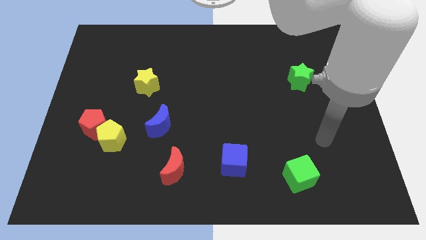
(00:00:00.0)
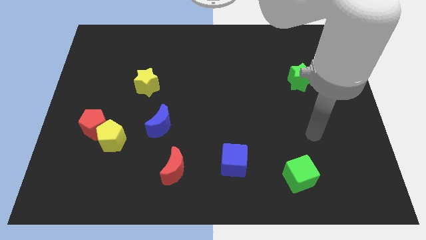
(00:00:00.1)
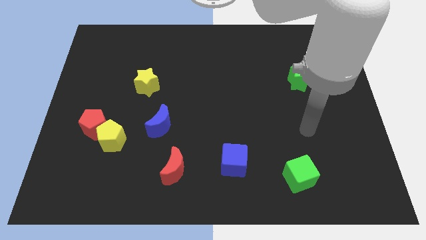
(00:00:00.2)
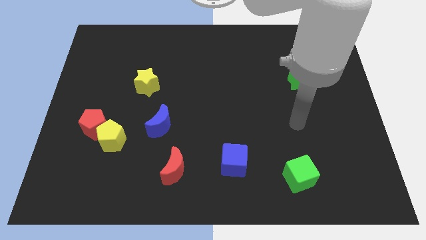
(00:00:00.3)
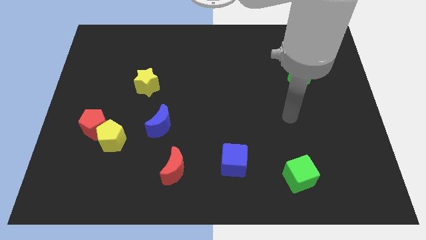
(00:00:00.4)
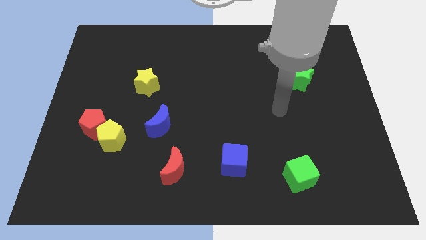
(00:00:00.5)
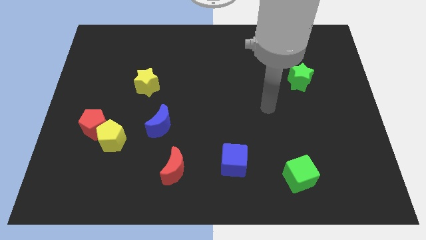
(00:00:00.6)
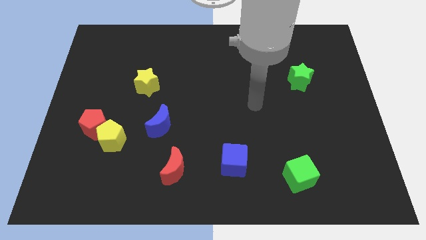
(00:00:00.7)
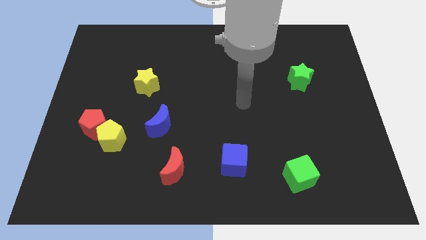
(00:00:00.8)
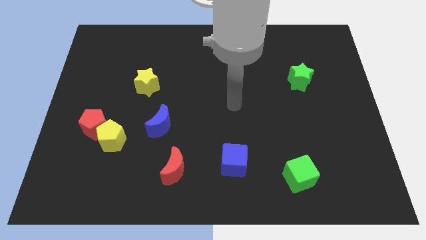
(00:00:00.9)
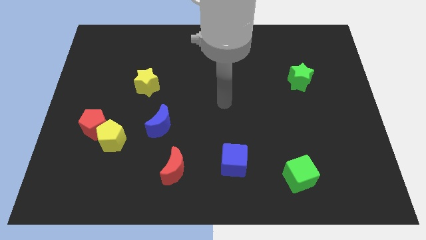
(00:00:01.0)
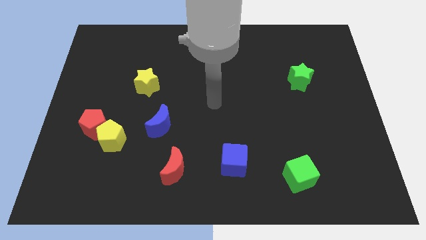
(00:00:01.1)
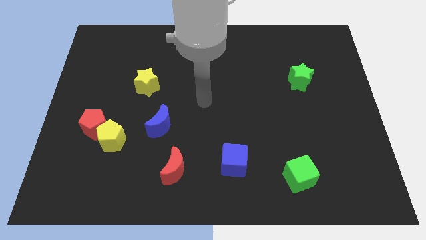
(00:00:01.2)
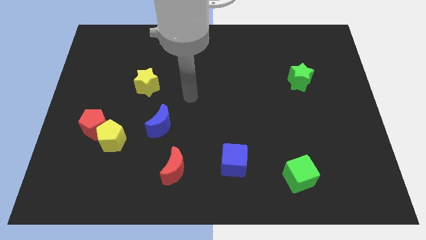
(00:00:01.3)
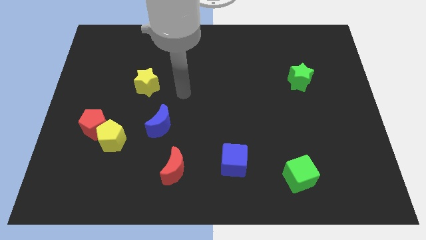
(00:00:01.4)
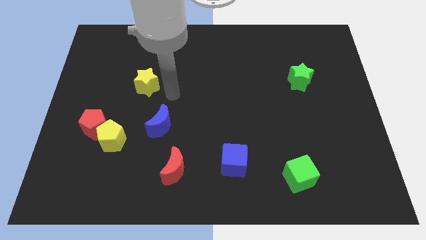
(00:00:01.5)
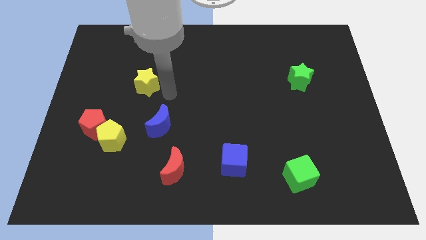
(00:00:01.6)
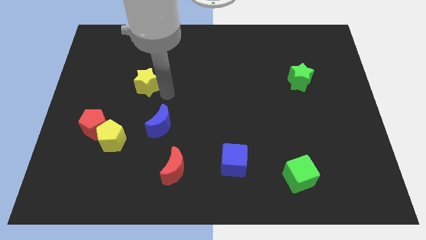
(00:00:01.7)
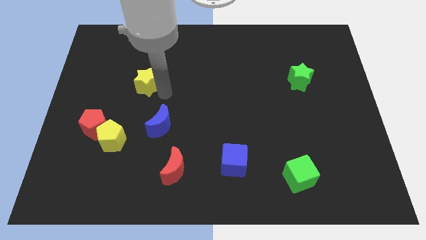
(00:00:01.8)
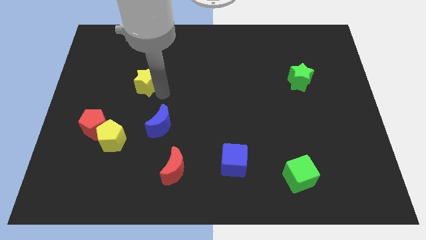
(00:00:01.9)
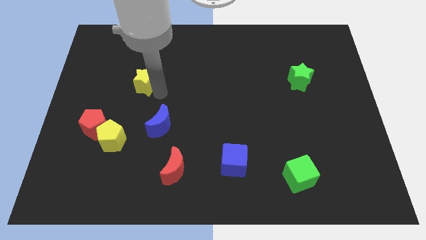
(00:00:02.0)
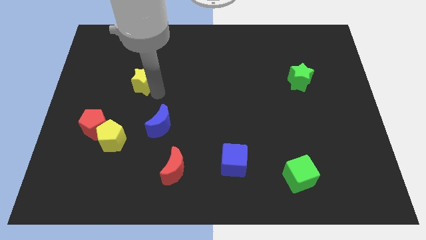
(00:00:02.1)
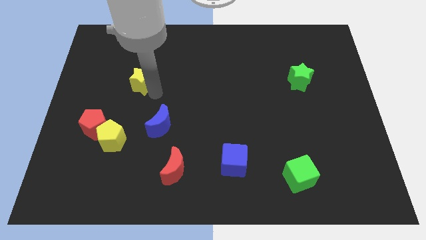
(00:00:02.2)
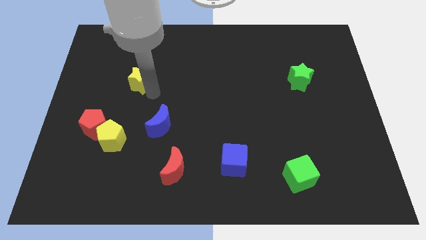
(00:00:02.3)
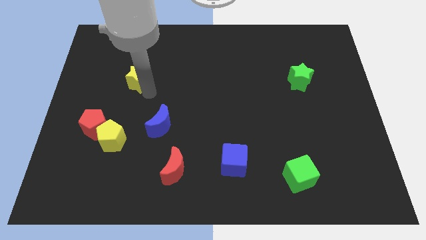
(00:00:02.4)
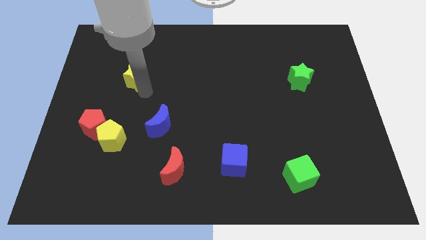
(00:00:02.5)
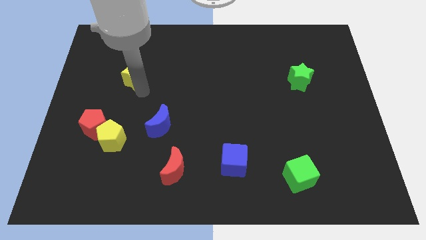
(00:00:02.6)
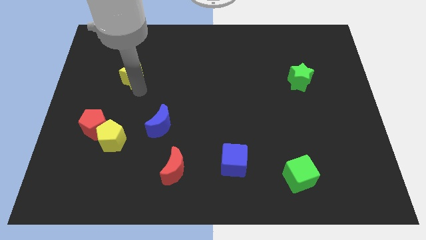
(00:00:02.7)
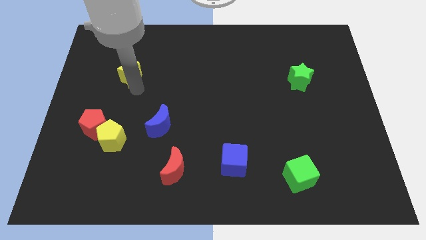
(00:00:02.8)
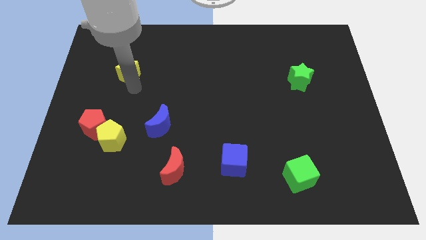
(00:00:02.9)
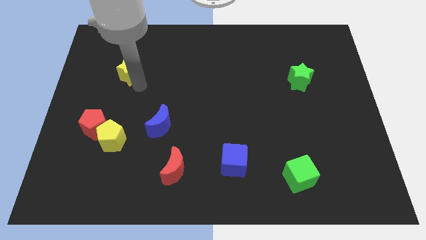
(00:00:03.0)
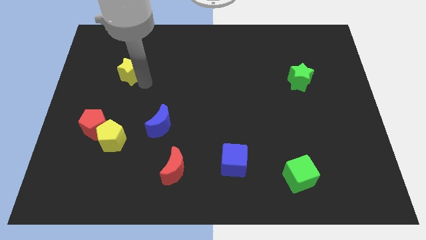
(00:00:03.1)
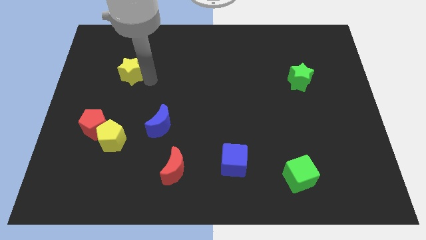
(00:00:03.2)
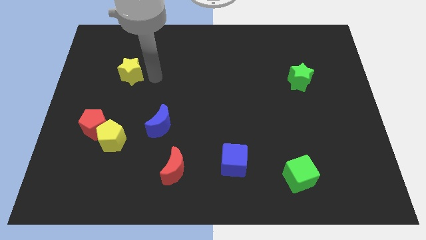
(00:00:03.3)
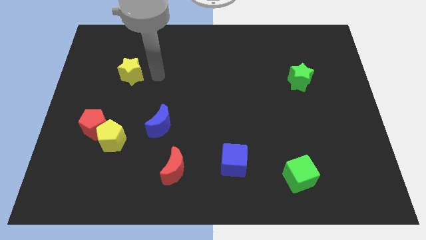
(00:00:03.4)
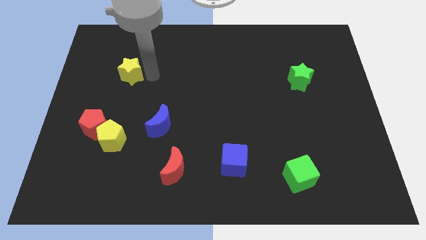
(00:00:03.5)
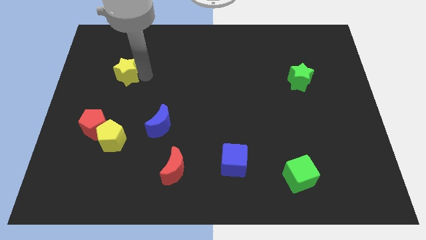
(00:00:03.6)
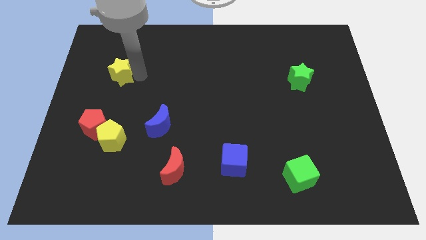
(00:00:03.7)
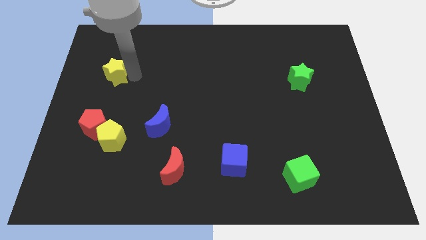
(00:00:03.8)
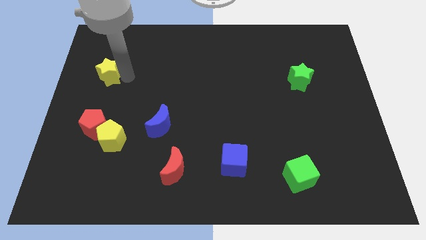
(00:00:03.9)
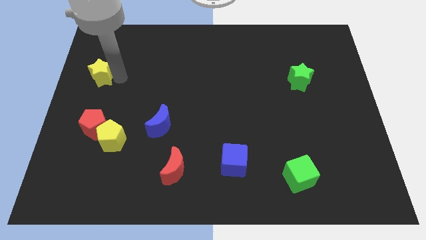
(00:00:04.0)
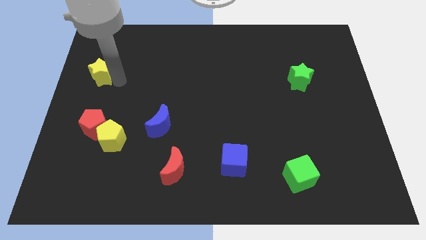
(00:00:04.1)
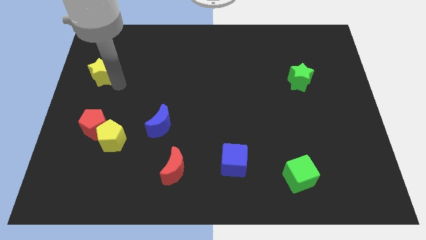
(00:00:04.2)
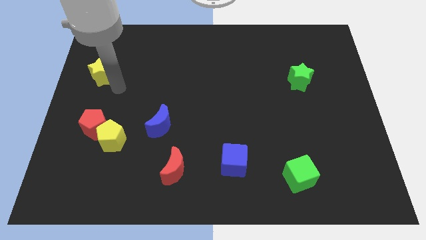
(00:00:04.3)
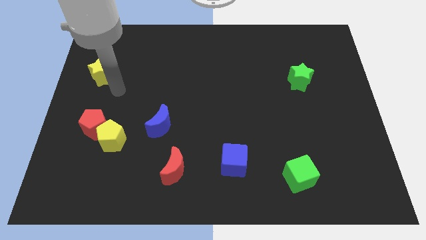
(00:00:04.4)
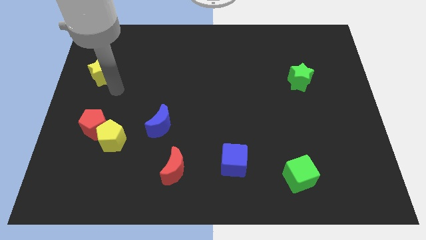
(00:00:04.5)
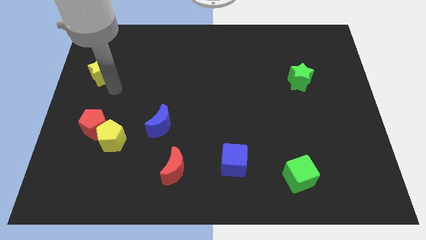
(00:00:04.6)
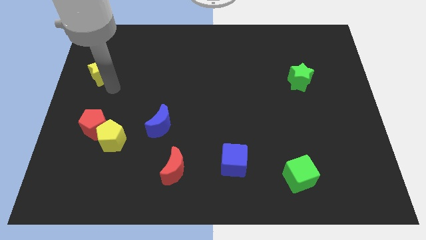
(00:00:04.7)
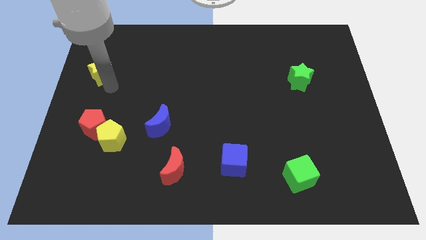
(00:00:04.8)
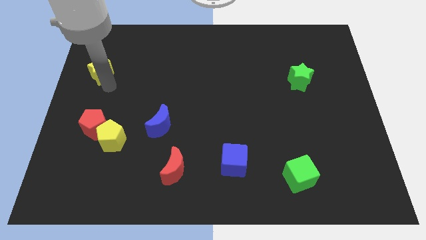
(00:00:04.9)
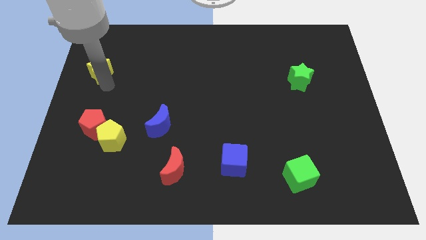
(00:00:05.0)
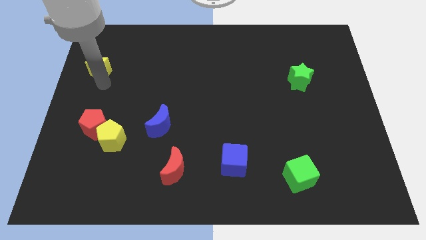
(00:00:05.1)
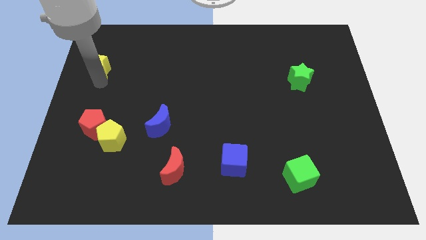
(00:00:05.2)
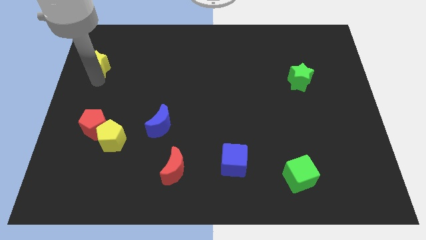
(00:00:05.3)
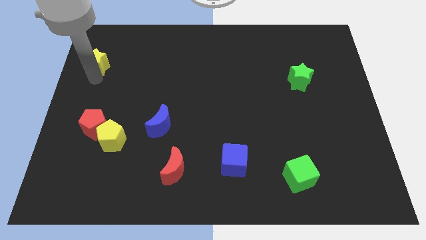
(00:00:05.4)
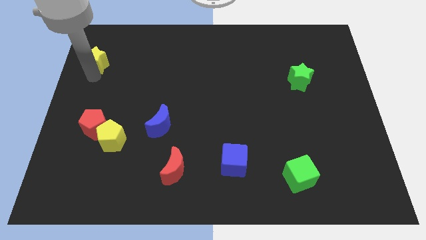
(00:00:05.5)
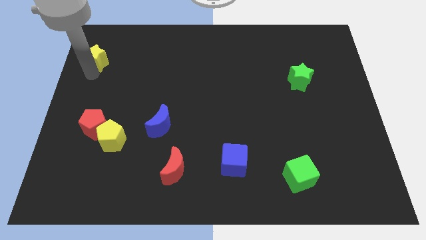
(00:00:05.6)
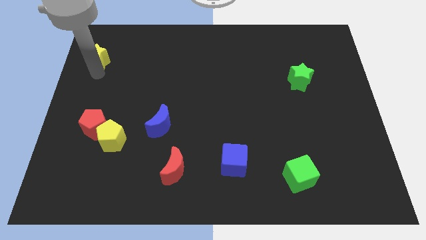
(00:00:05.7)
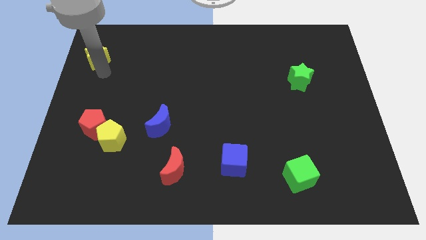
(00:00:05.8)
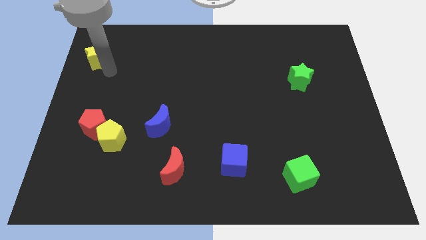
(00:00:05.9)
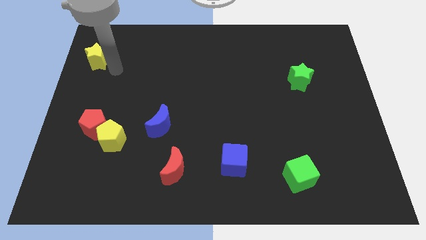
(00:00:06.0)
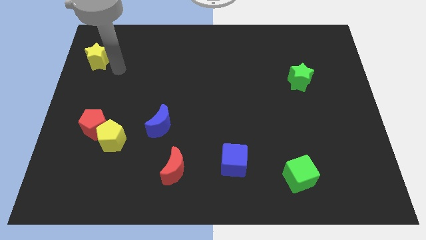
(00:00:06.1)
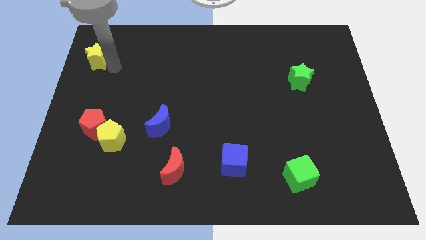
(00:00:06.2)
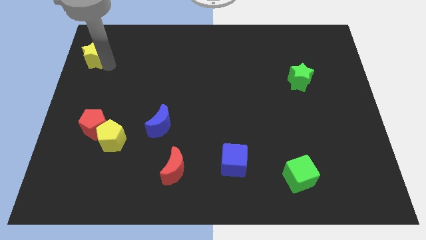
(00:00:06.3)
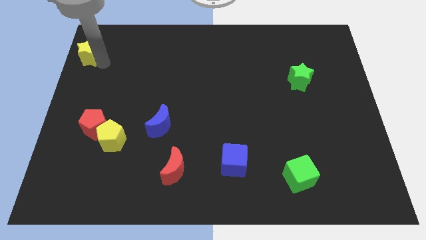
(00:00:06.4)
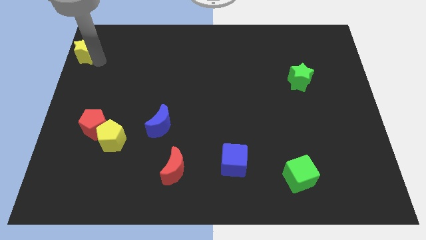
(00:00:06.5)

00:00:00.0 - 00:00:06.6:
push the yellow star to the upper left corner
